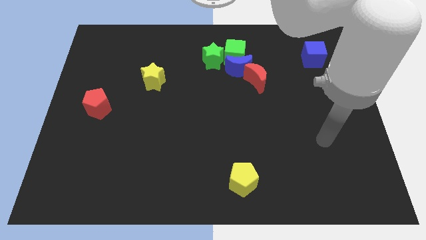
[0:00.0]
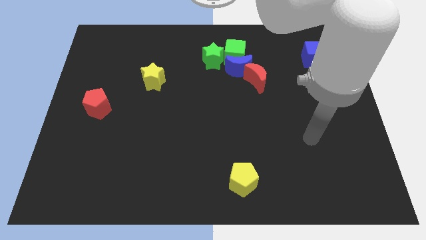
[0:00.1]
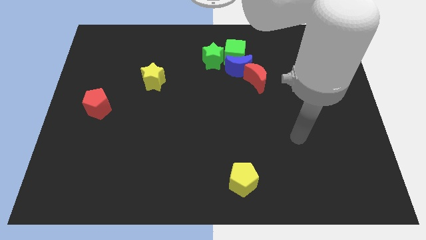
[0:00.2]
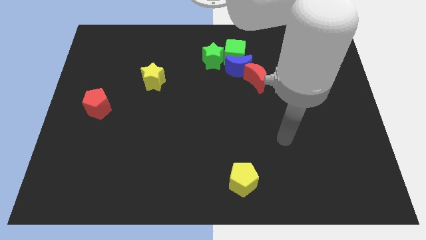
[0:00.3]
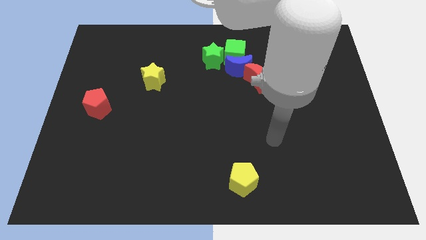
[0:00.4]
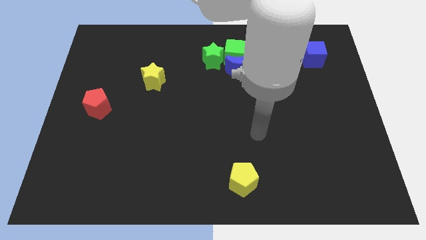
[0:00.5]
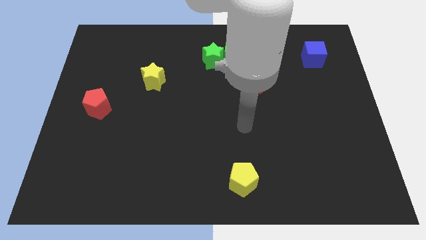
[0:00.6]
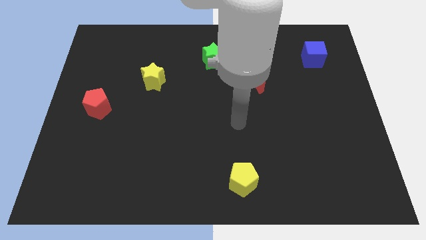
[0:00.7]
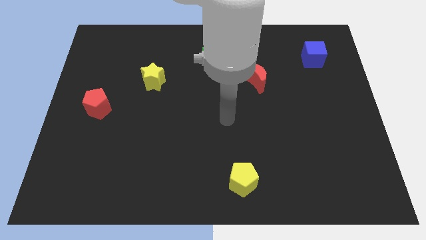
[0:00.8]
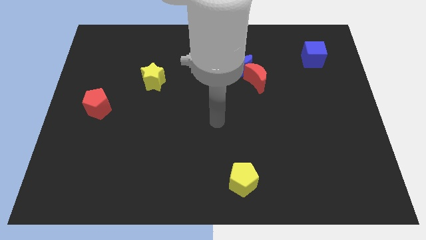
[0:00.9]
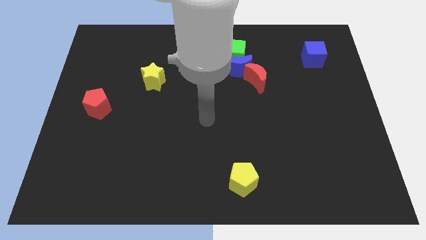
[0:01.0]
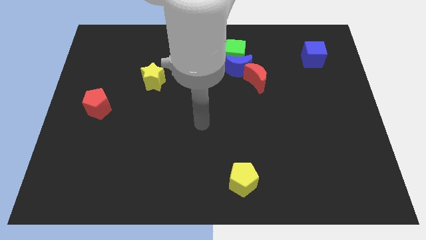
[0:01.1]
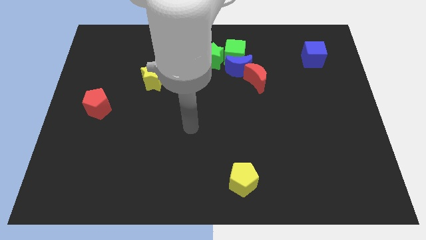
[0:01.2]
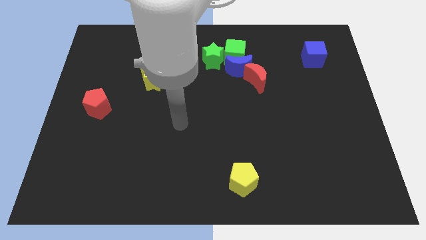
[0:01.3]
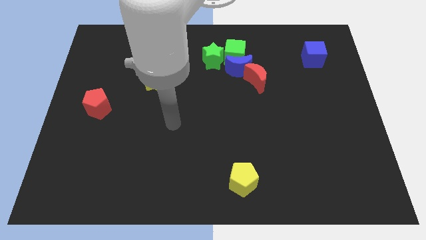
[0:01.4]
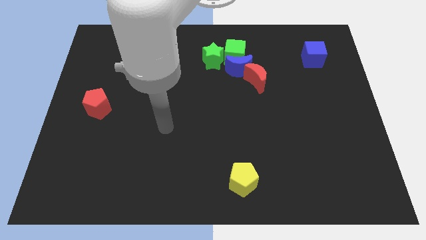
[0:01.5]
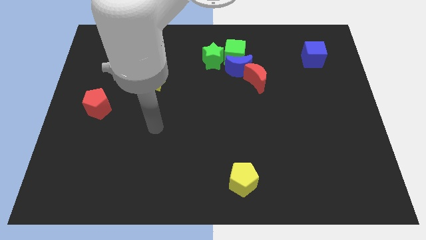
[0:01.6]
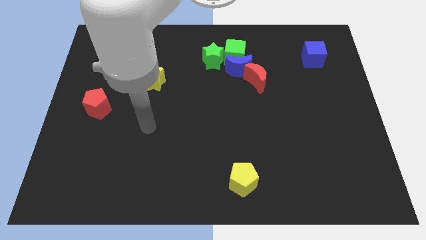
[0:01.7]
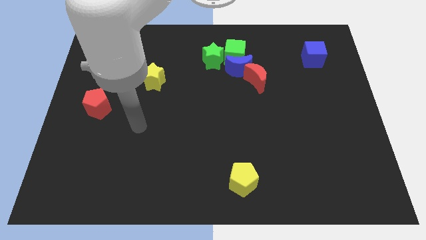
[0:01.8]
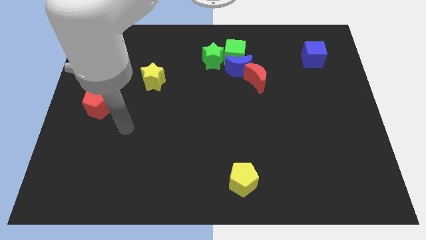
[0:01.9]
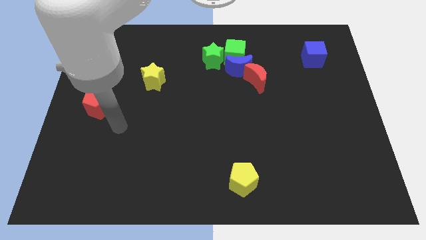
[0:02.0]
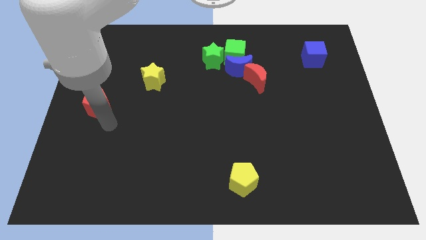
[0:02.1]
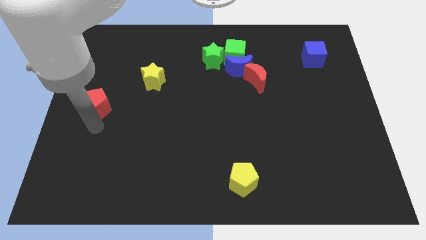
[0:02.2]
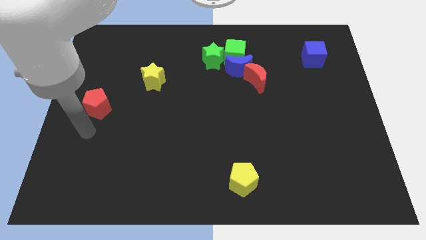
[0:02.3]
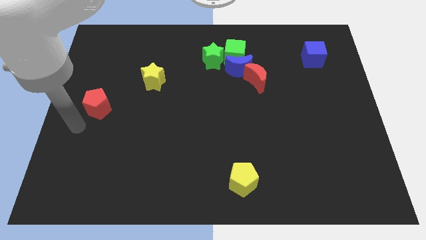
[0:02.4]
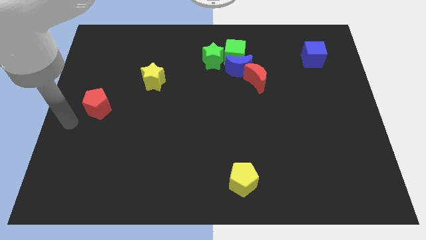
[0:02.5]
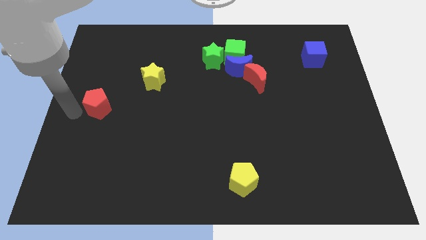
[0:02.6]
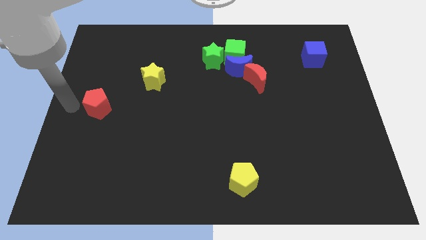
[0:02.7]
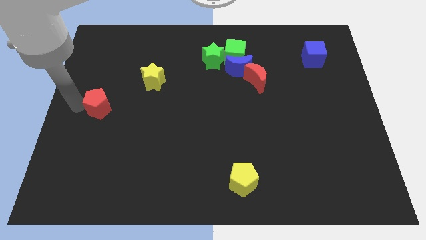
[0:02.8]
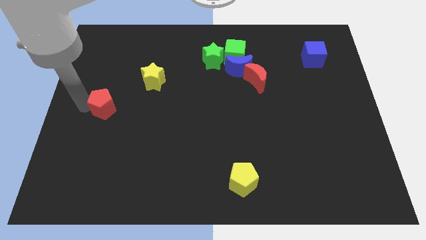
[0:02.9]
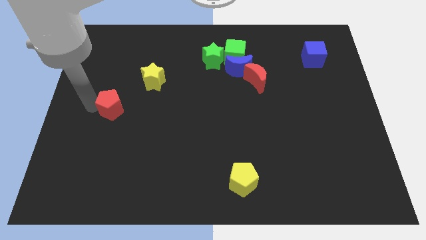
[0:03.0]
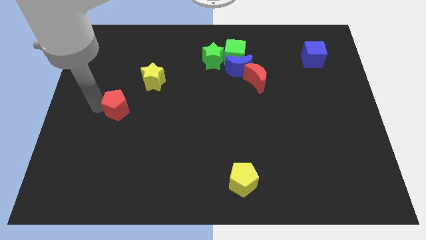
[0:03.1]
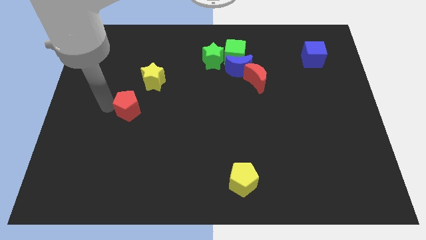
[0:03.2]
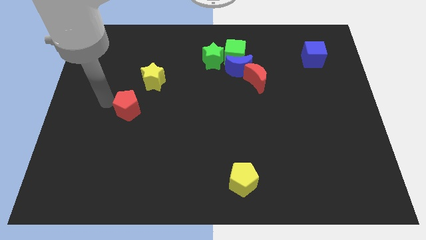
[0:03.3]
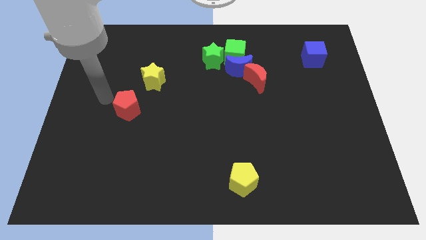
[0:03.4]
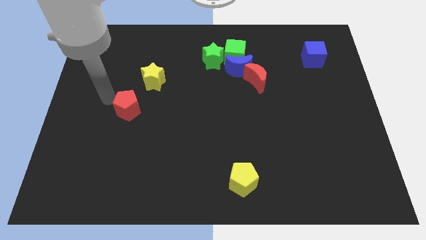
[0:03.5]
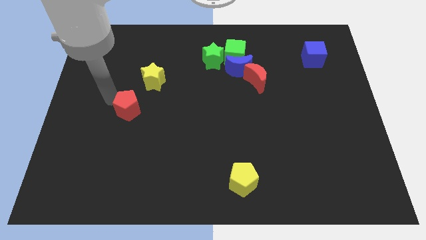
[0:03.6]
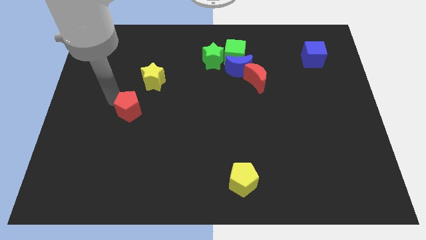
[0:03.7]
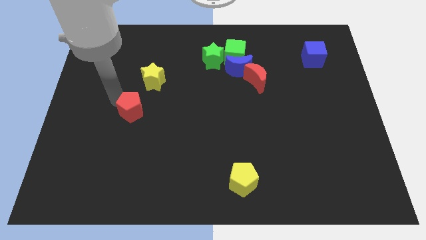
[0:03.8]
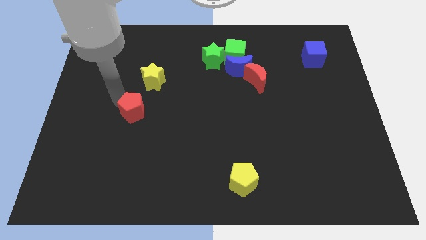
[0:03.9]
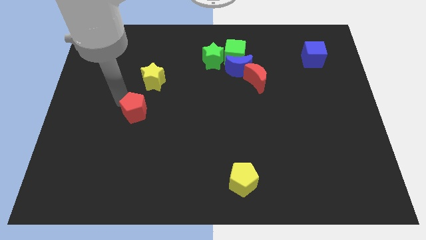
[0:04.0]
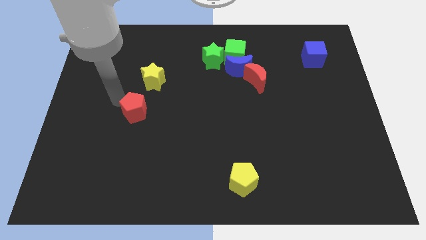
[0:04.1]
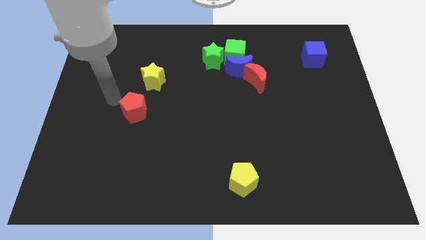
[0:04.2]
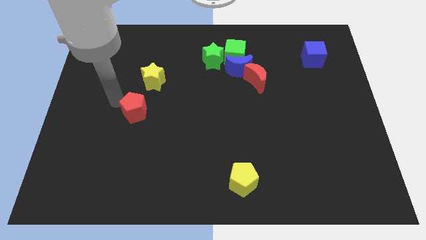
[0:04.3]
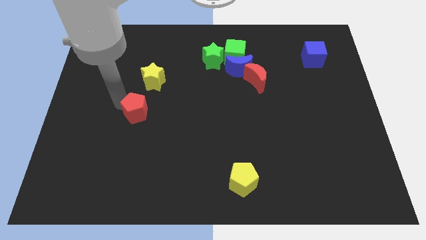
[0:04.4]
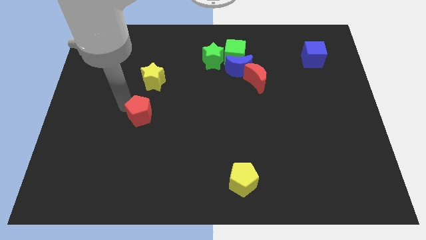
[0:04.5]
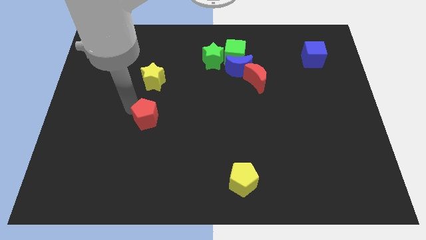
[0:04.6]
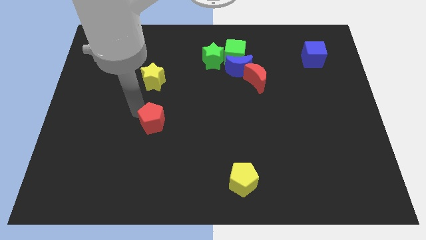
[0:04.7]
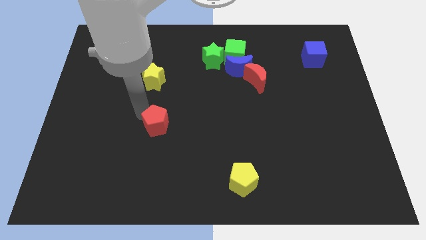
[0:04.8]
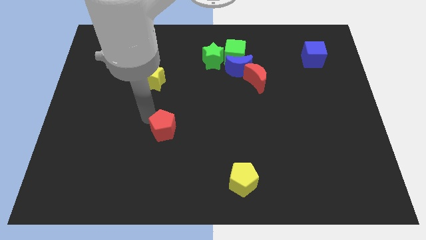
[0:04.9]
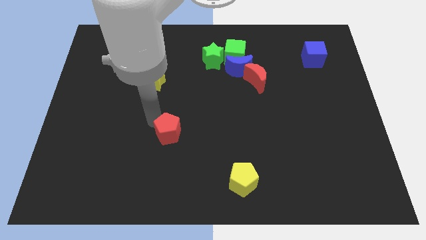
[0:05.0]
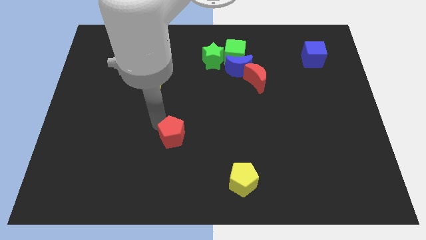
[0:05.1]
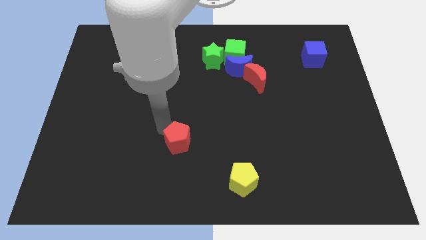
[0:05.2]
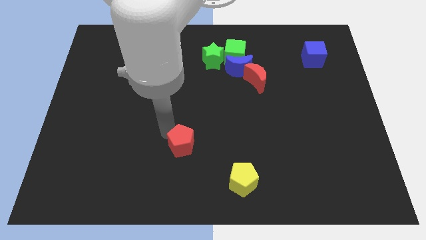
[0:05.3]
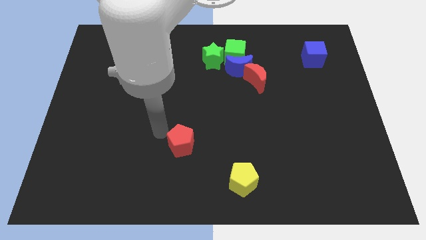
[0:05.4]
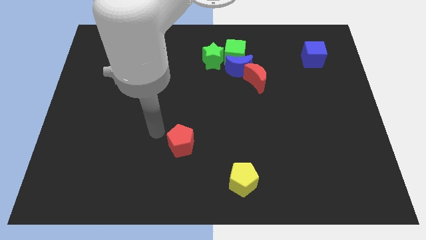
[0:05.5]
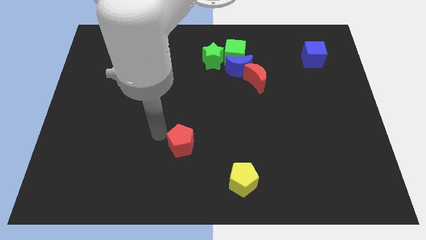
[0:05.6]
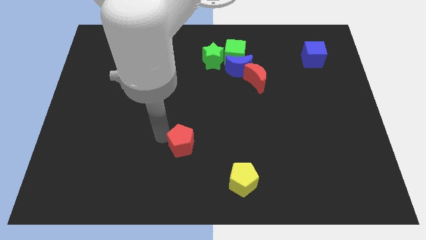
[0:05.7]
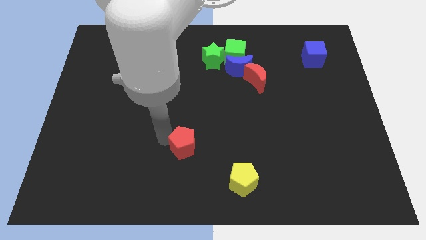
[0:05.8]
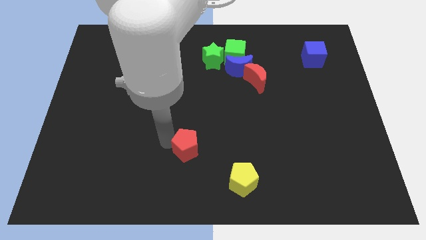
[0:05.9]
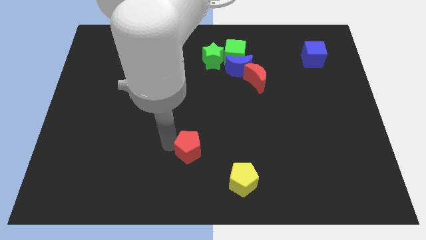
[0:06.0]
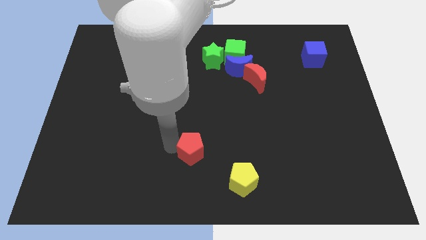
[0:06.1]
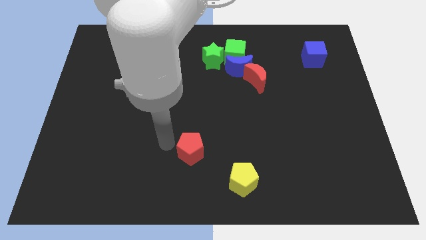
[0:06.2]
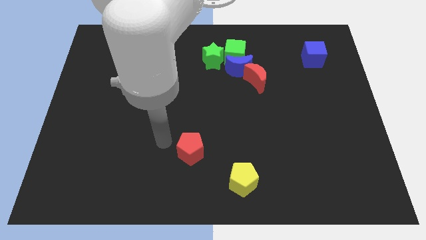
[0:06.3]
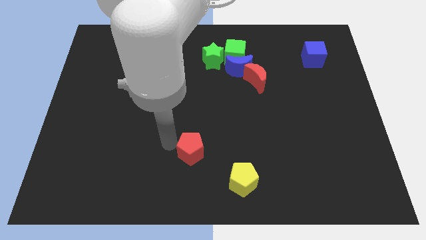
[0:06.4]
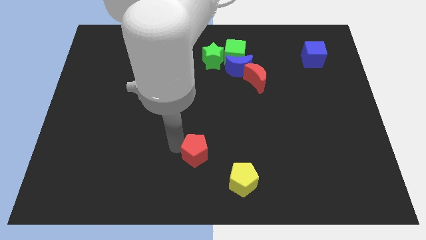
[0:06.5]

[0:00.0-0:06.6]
move the red pentagon to the top left of the yellow pentagon
